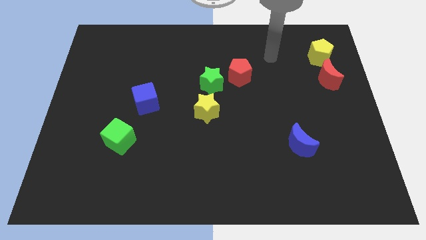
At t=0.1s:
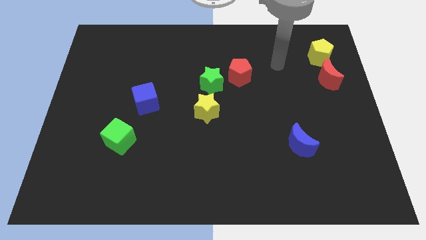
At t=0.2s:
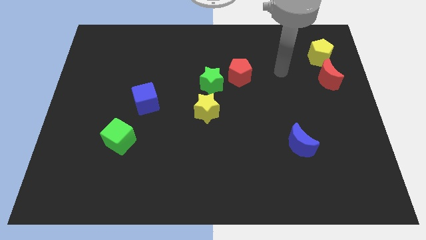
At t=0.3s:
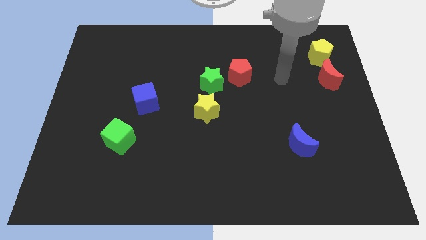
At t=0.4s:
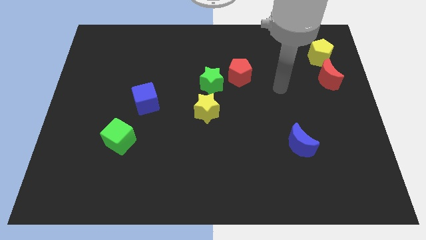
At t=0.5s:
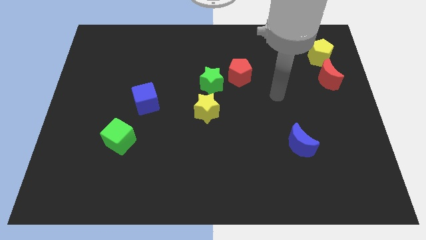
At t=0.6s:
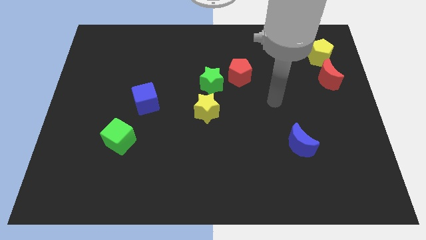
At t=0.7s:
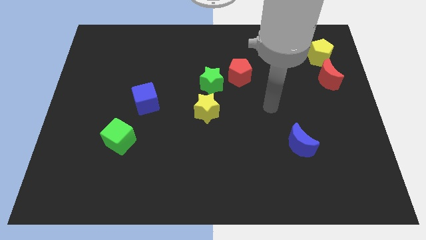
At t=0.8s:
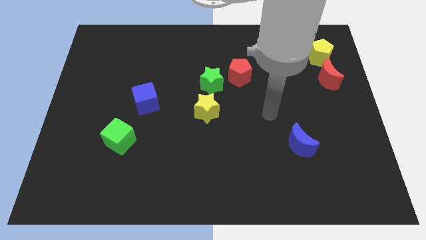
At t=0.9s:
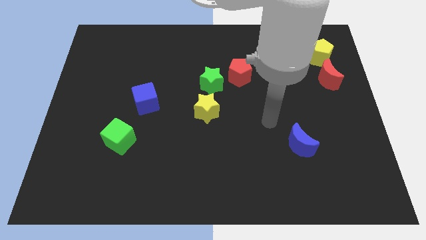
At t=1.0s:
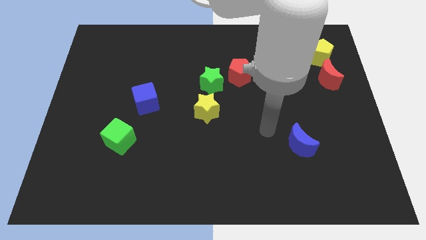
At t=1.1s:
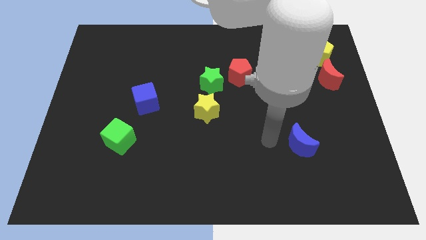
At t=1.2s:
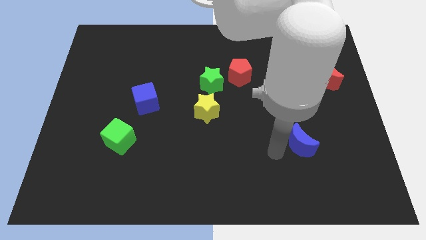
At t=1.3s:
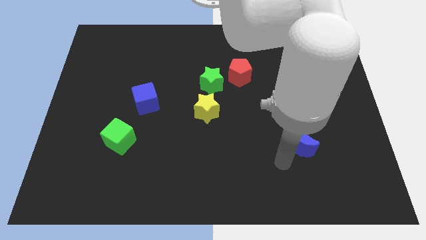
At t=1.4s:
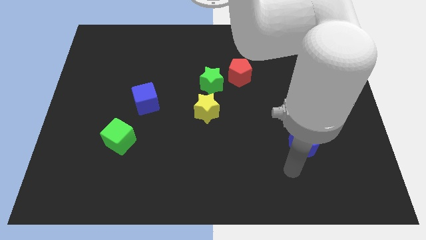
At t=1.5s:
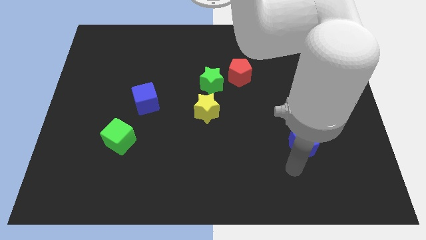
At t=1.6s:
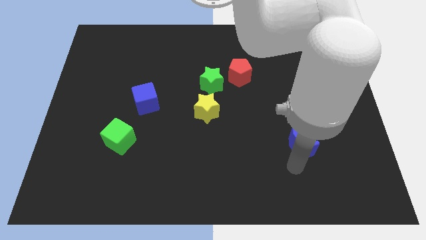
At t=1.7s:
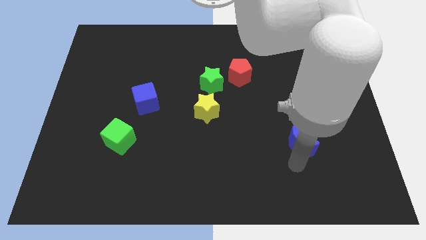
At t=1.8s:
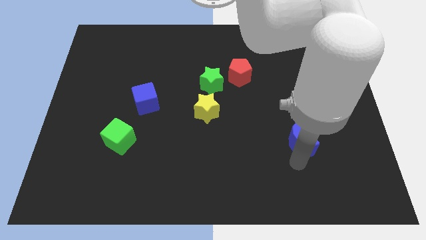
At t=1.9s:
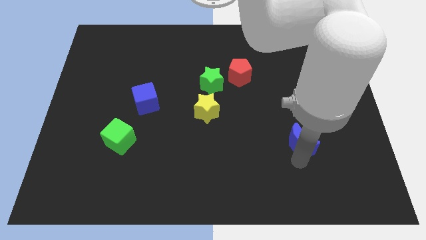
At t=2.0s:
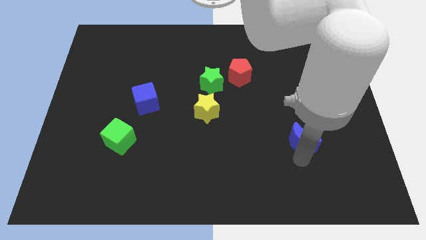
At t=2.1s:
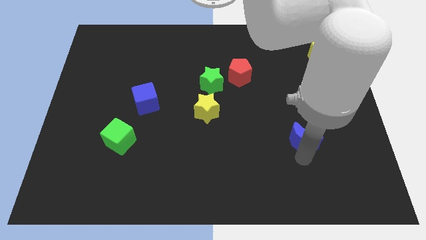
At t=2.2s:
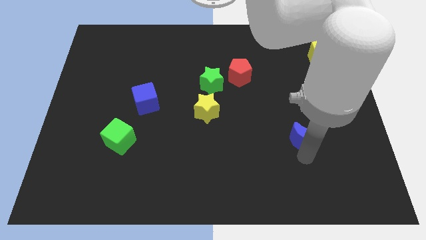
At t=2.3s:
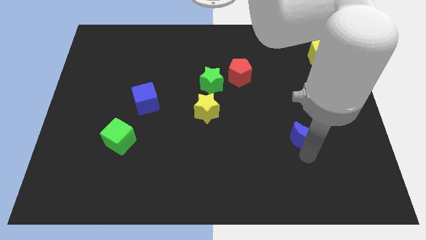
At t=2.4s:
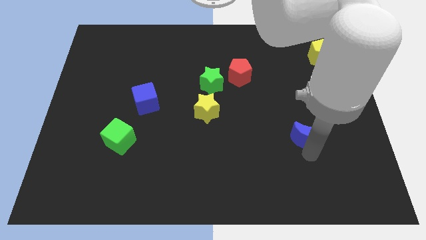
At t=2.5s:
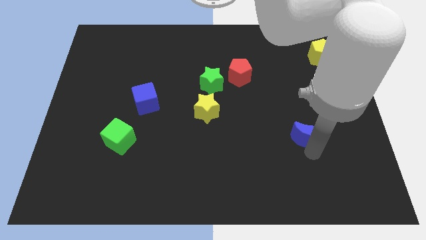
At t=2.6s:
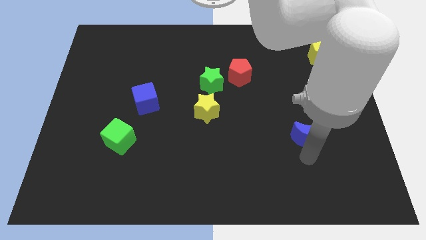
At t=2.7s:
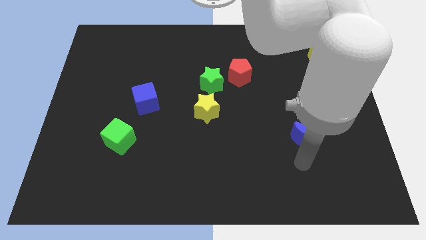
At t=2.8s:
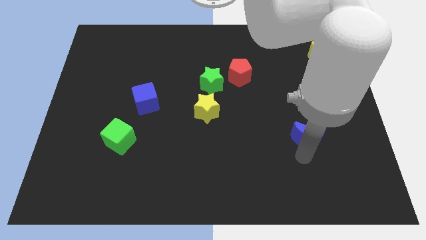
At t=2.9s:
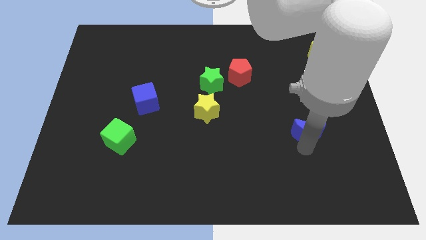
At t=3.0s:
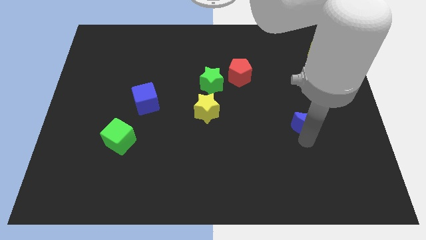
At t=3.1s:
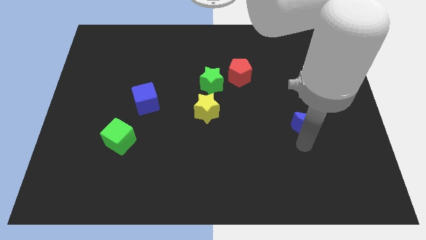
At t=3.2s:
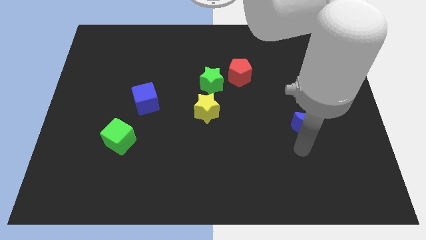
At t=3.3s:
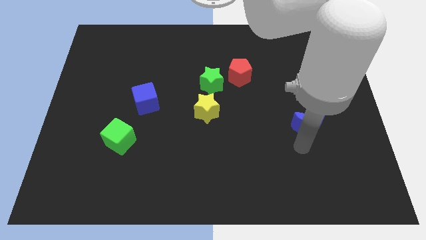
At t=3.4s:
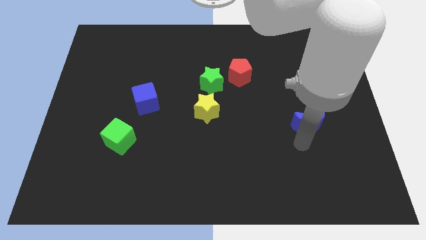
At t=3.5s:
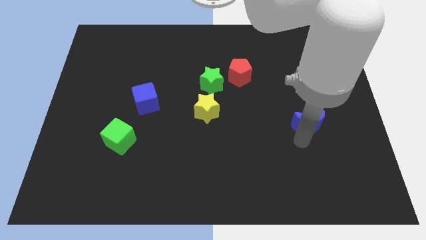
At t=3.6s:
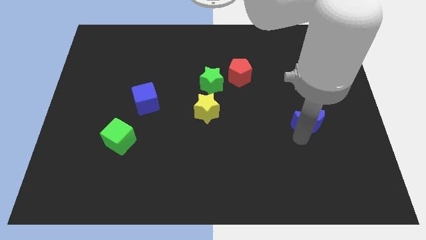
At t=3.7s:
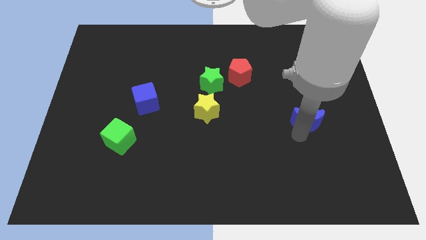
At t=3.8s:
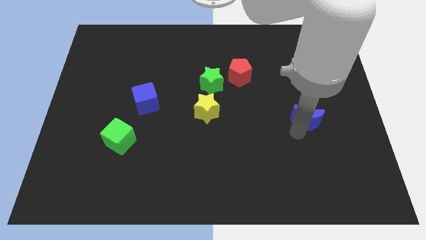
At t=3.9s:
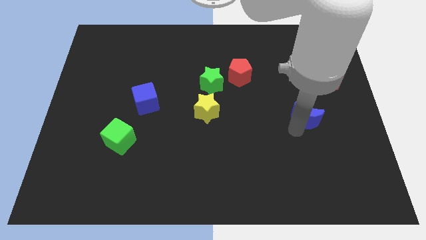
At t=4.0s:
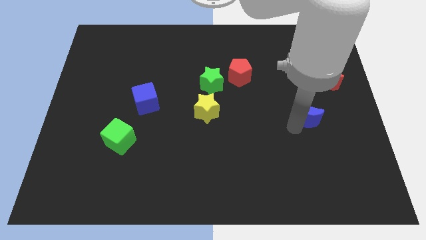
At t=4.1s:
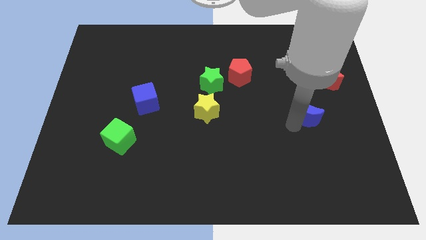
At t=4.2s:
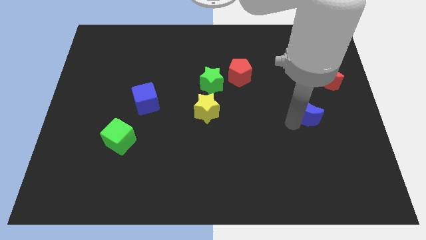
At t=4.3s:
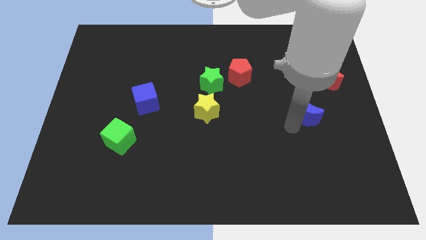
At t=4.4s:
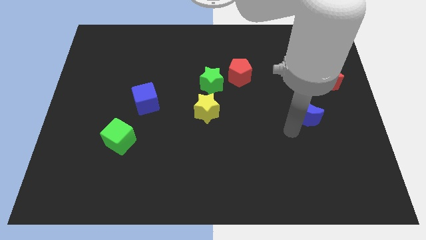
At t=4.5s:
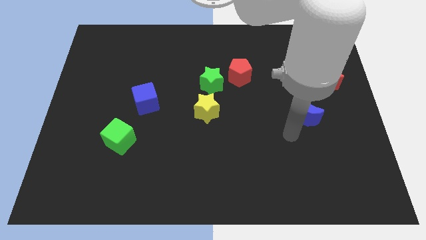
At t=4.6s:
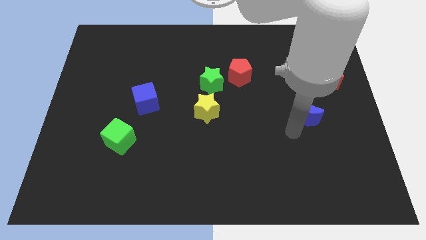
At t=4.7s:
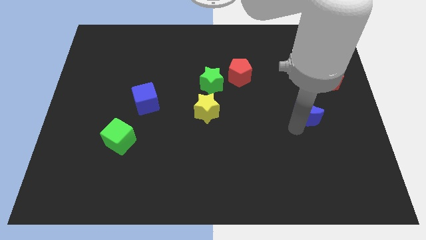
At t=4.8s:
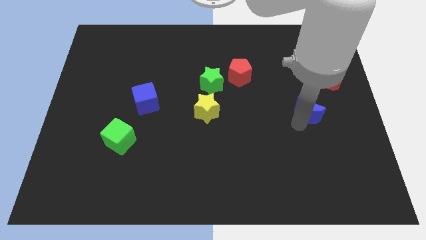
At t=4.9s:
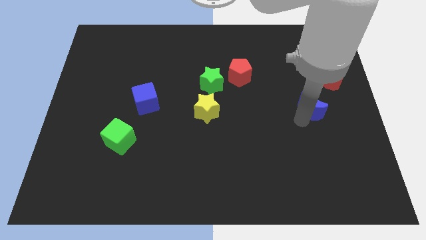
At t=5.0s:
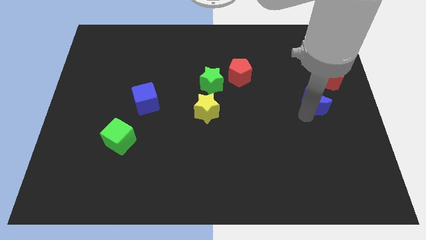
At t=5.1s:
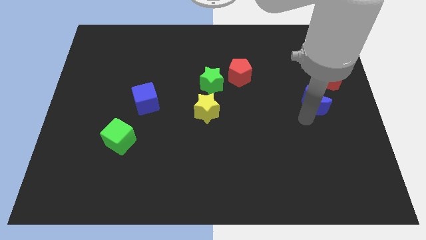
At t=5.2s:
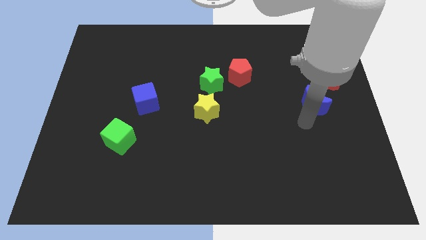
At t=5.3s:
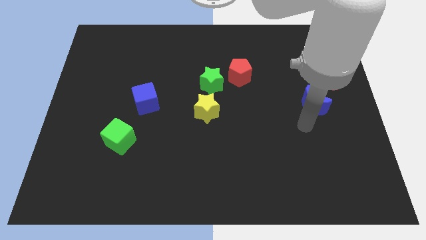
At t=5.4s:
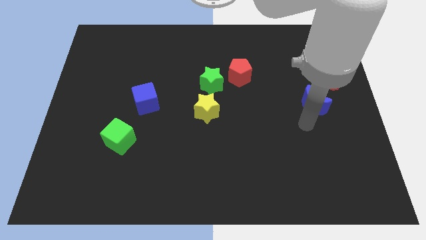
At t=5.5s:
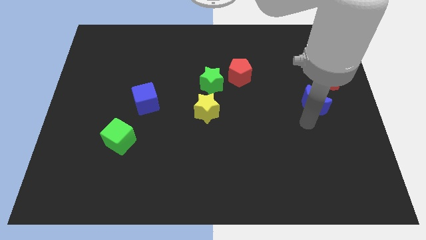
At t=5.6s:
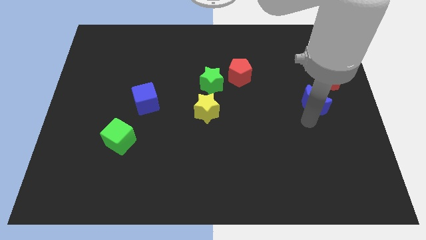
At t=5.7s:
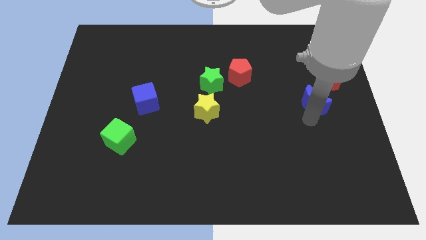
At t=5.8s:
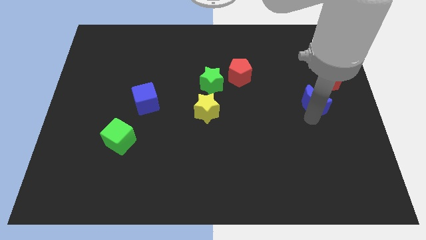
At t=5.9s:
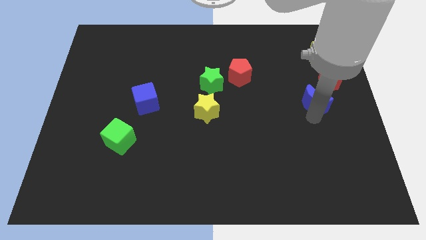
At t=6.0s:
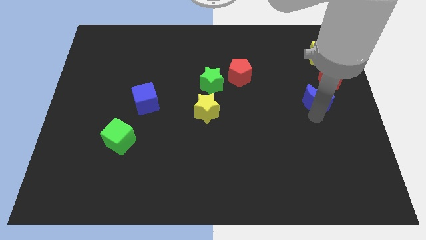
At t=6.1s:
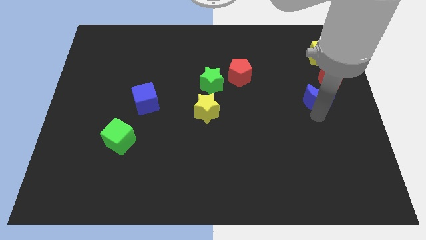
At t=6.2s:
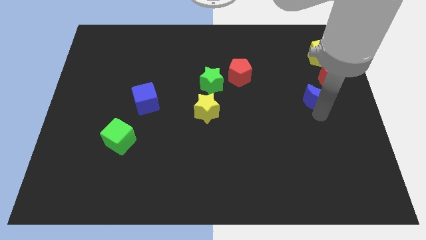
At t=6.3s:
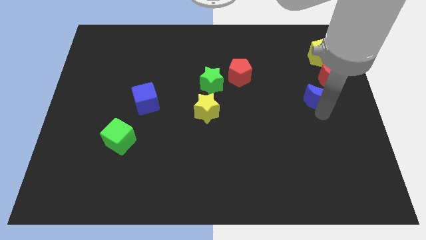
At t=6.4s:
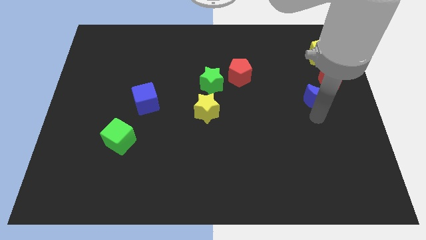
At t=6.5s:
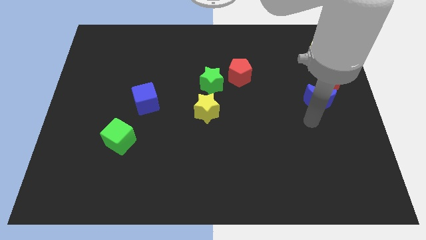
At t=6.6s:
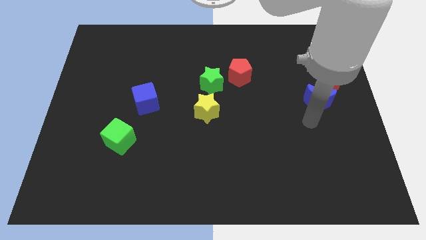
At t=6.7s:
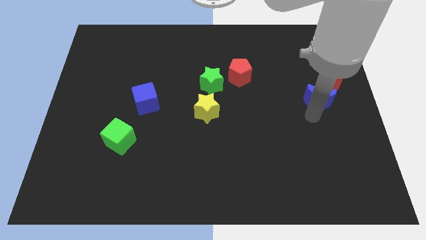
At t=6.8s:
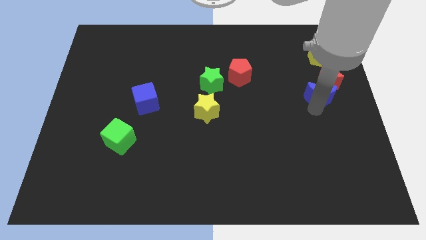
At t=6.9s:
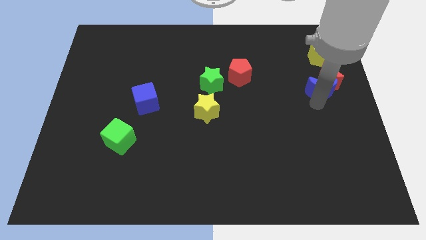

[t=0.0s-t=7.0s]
slide the blue moon close to the red moon
